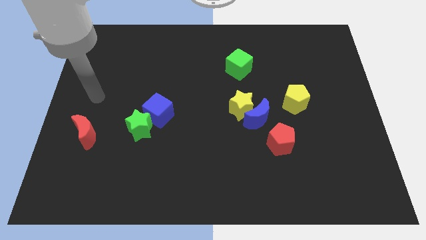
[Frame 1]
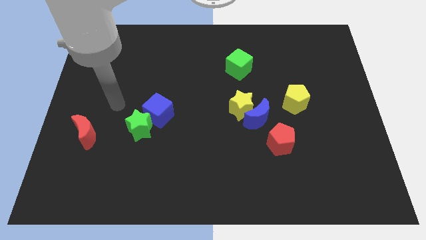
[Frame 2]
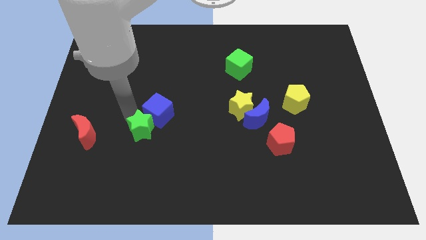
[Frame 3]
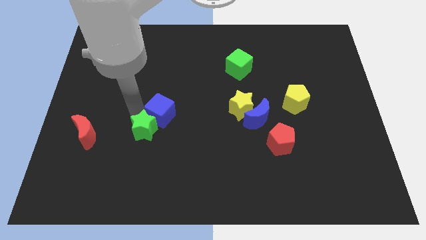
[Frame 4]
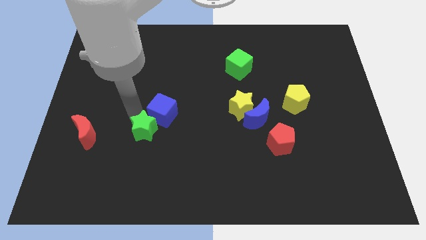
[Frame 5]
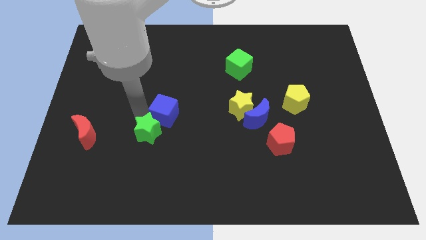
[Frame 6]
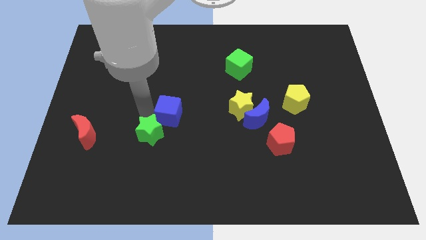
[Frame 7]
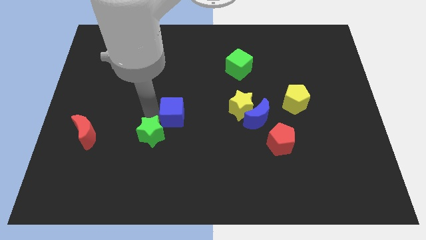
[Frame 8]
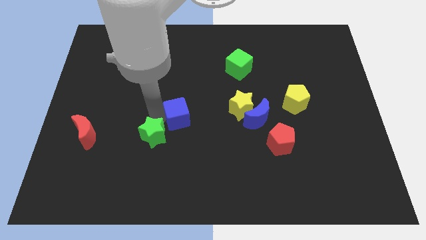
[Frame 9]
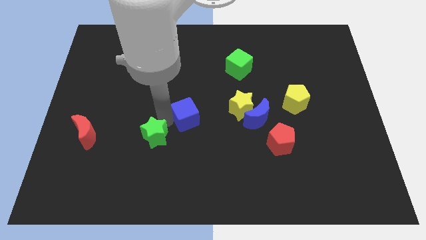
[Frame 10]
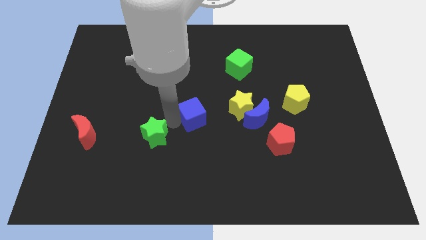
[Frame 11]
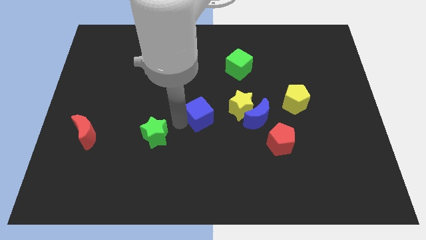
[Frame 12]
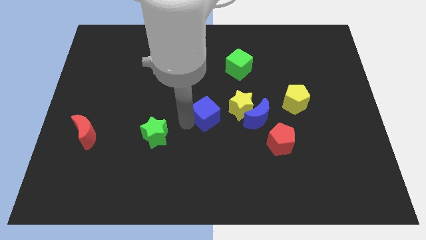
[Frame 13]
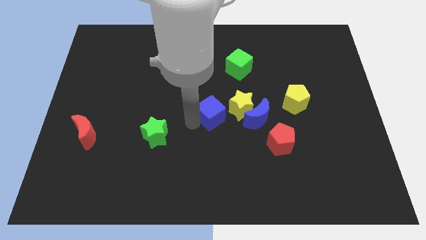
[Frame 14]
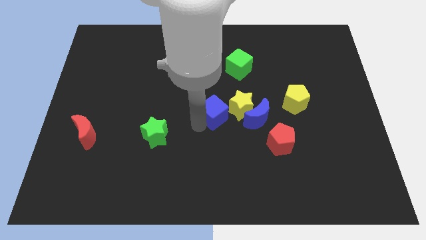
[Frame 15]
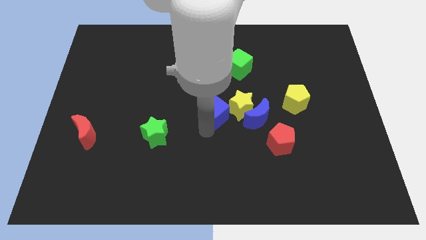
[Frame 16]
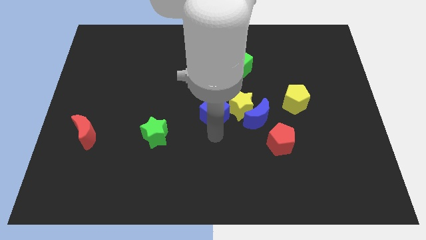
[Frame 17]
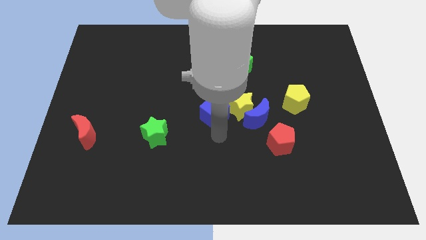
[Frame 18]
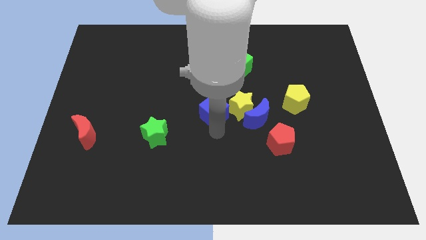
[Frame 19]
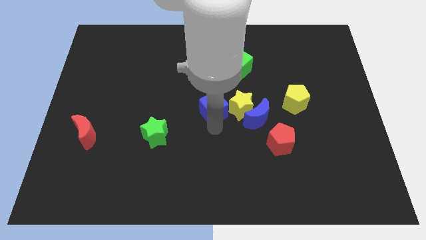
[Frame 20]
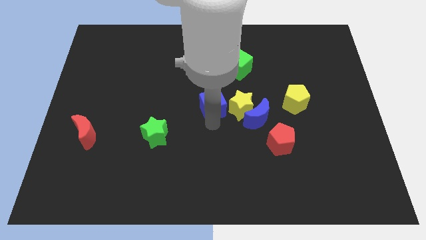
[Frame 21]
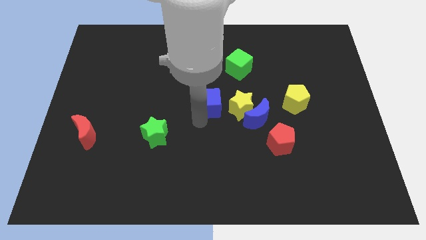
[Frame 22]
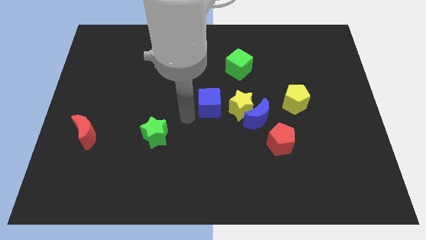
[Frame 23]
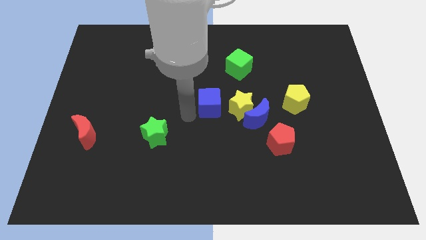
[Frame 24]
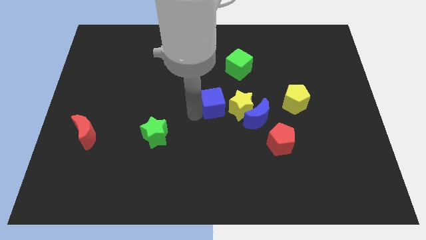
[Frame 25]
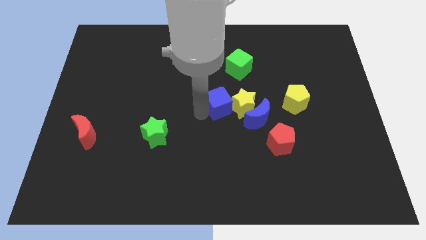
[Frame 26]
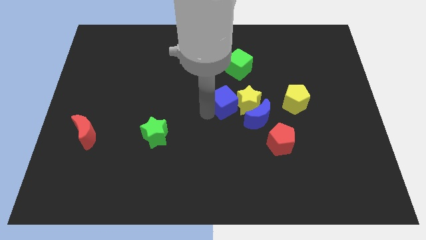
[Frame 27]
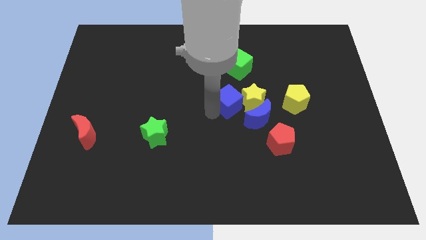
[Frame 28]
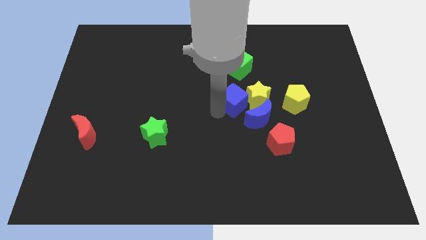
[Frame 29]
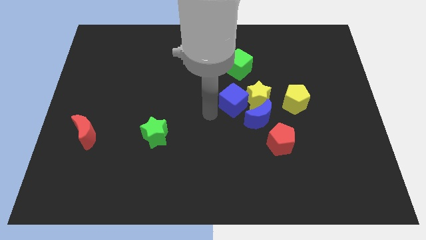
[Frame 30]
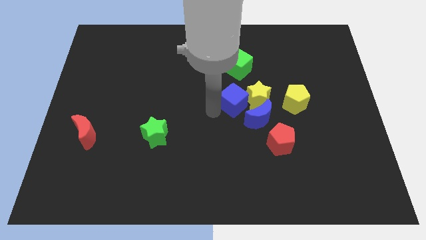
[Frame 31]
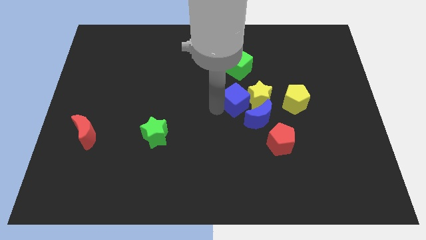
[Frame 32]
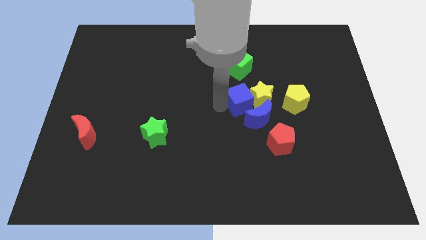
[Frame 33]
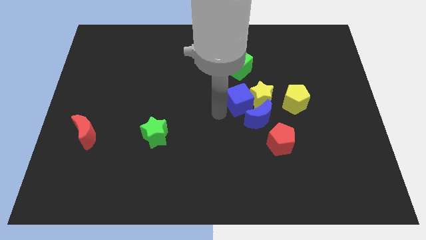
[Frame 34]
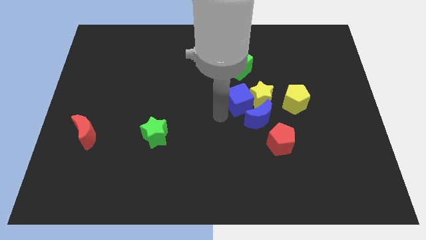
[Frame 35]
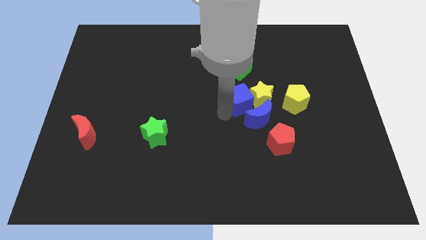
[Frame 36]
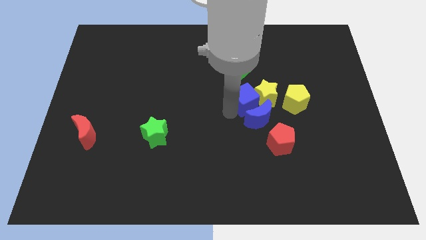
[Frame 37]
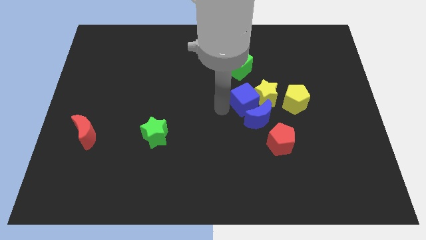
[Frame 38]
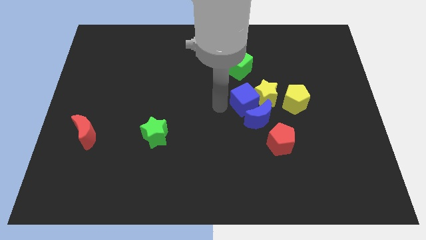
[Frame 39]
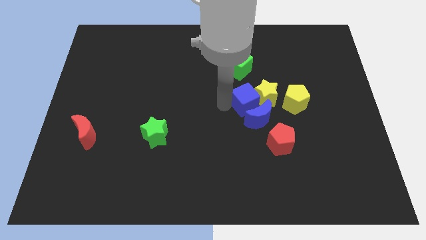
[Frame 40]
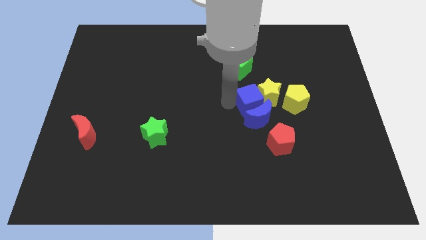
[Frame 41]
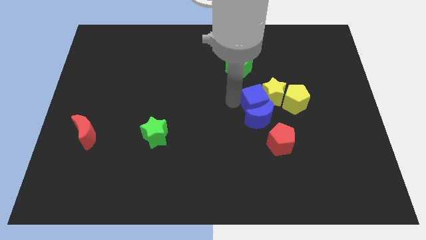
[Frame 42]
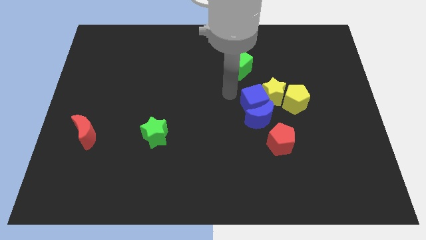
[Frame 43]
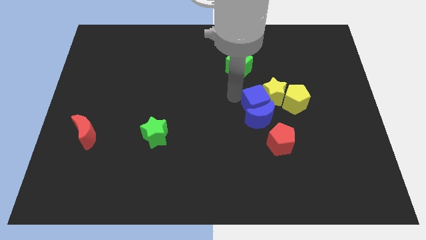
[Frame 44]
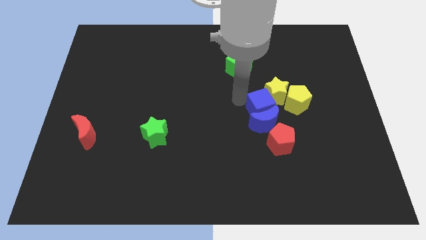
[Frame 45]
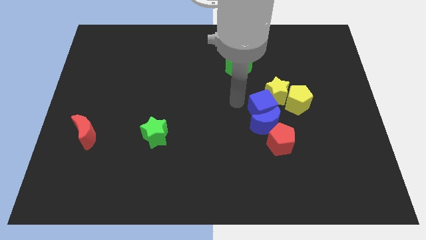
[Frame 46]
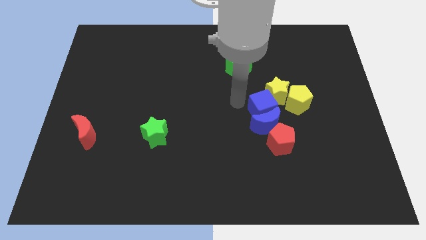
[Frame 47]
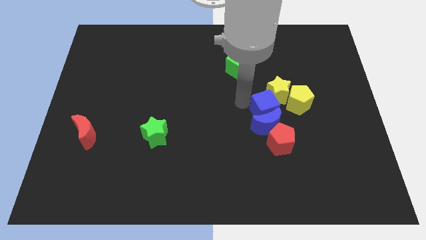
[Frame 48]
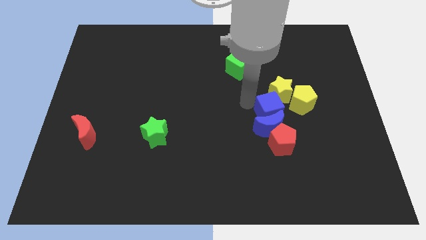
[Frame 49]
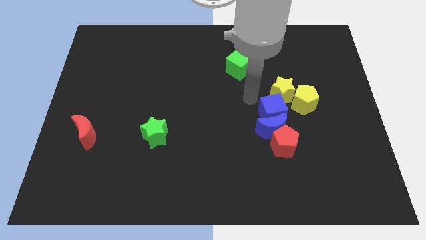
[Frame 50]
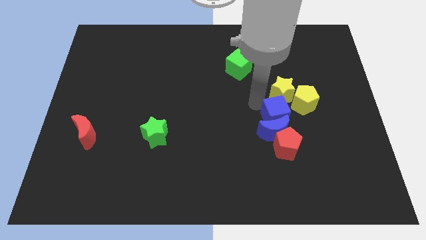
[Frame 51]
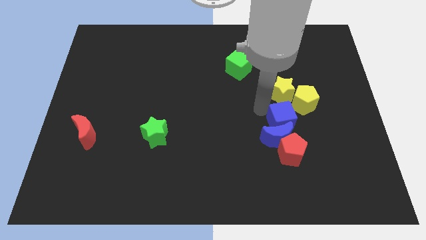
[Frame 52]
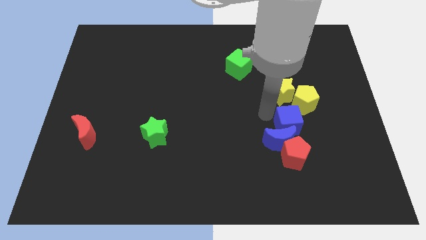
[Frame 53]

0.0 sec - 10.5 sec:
push the blue cube to the bottom side of the yellow pentagon

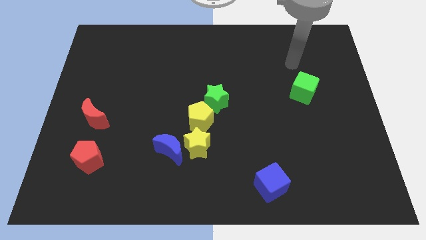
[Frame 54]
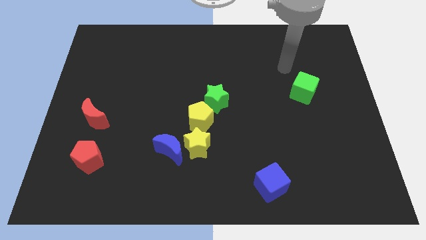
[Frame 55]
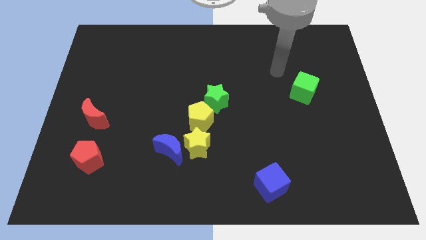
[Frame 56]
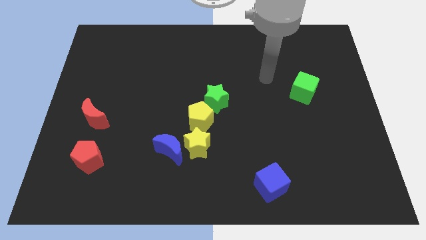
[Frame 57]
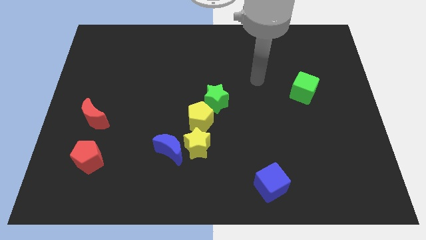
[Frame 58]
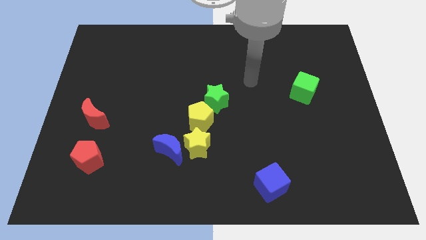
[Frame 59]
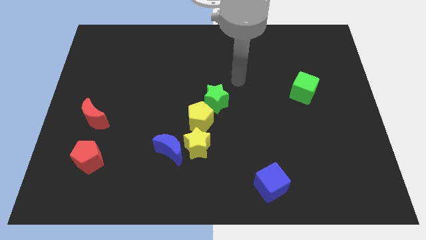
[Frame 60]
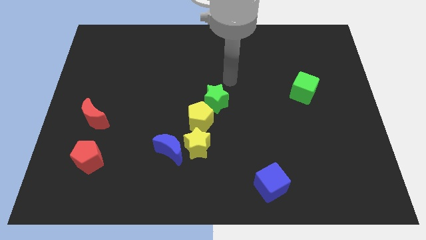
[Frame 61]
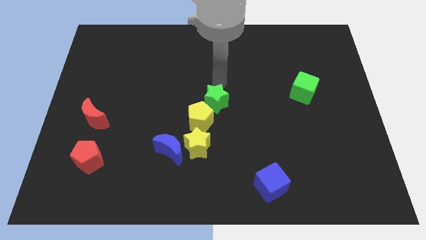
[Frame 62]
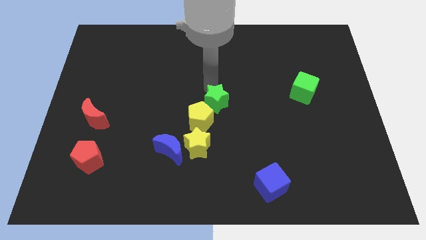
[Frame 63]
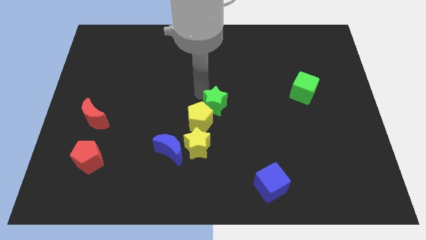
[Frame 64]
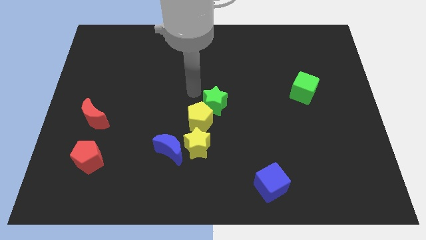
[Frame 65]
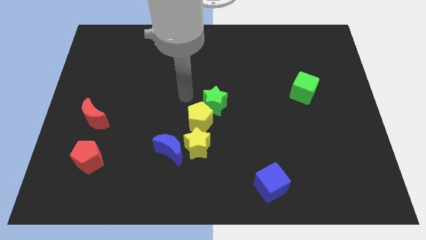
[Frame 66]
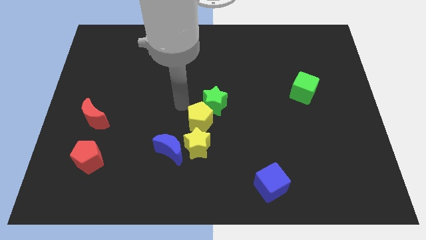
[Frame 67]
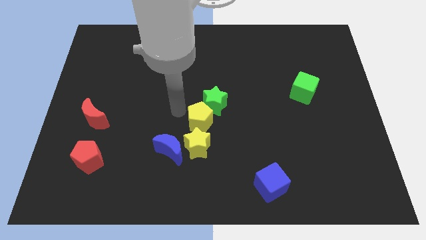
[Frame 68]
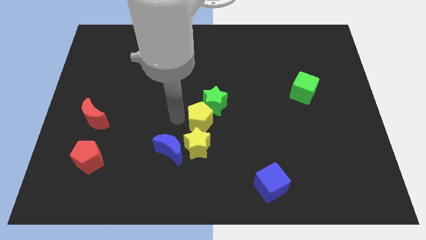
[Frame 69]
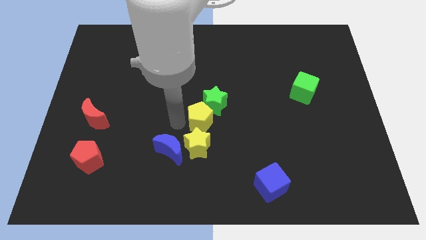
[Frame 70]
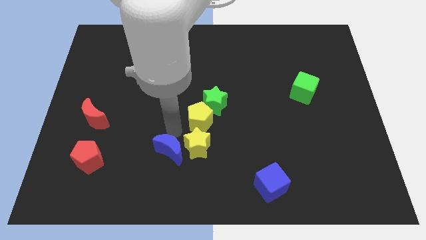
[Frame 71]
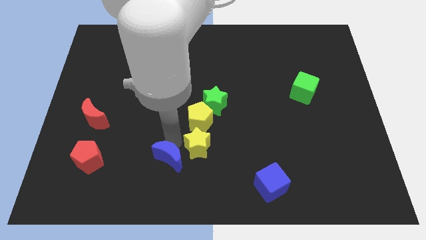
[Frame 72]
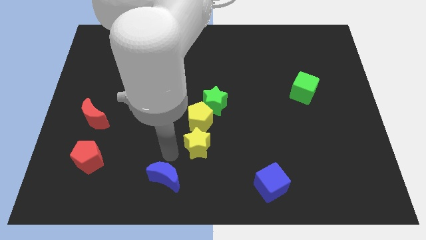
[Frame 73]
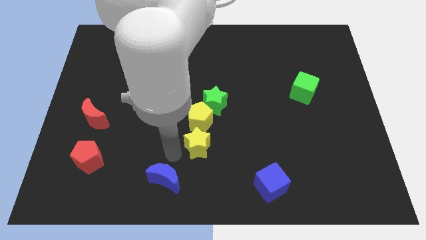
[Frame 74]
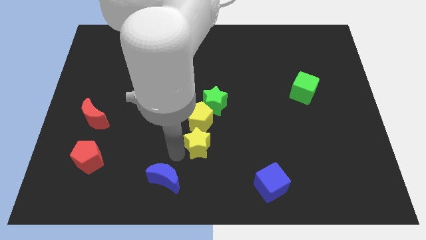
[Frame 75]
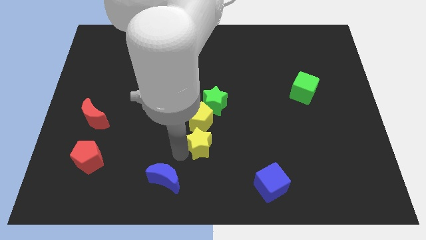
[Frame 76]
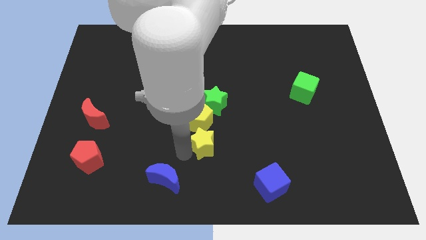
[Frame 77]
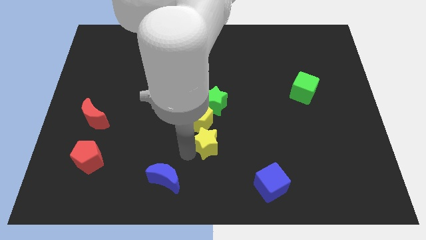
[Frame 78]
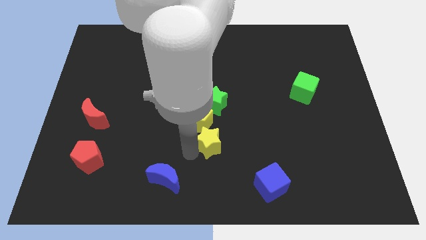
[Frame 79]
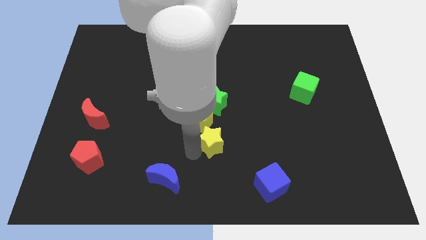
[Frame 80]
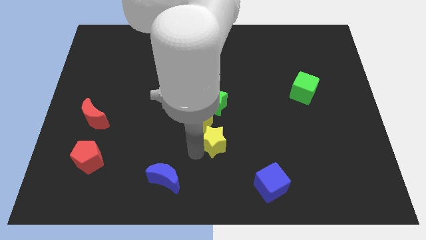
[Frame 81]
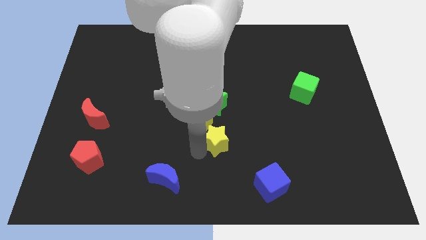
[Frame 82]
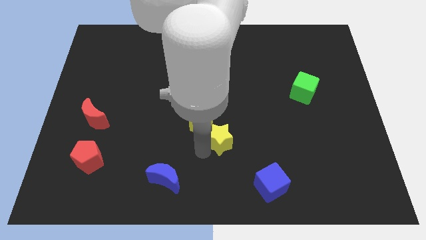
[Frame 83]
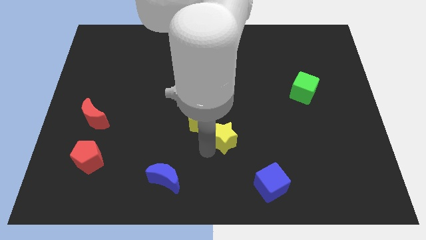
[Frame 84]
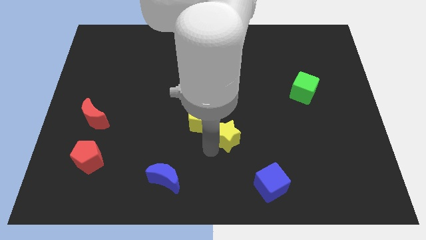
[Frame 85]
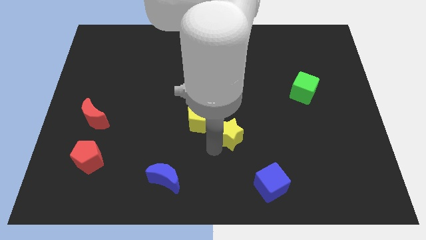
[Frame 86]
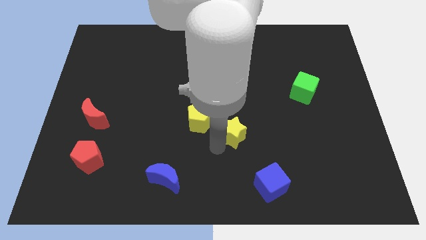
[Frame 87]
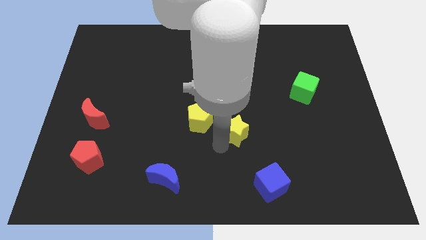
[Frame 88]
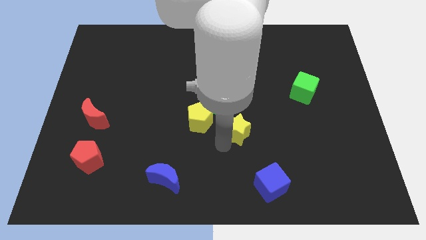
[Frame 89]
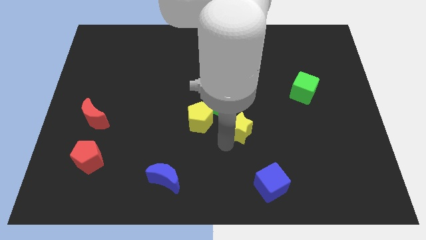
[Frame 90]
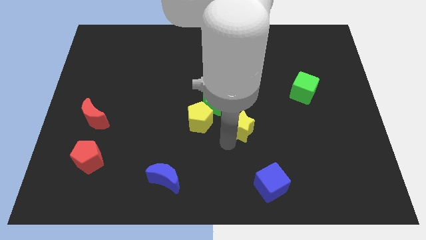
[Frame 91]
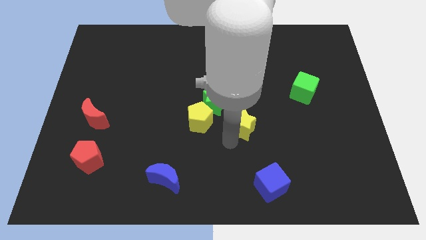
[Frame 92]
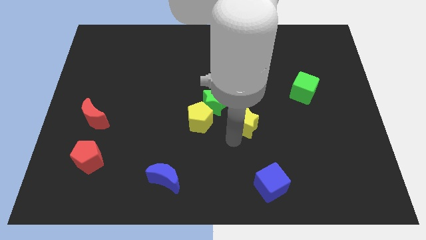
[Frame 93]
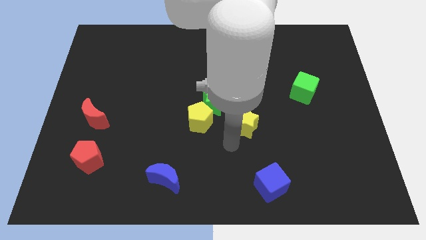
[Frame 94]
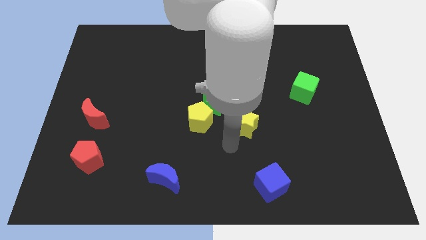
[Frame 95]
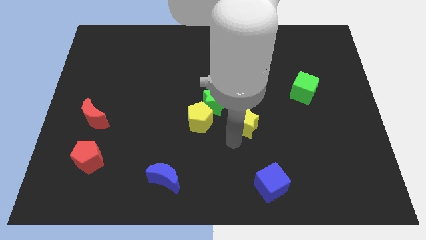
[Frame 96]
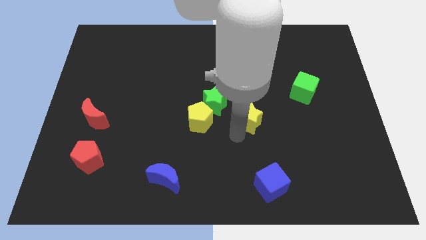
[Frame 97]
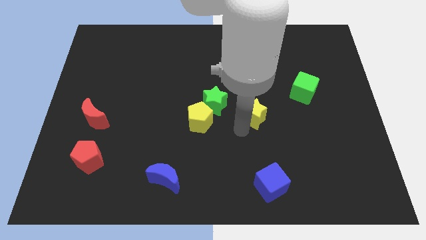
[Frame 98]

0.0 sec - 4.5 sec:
push the yellow star right of the green star
